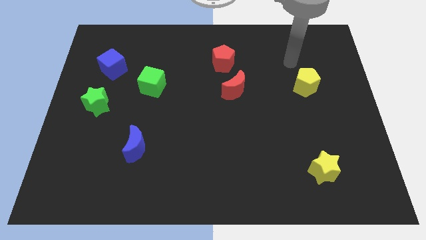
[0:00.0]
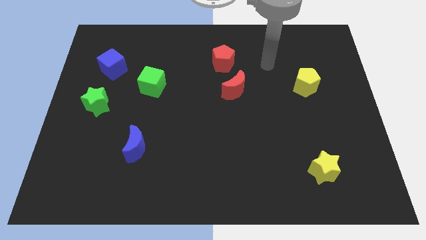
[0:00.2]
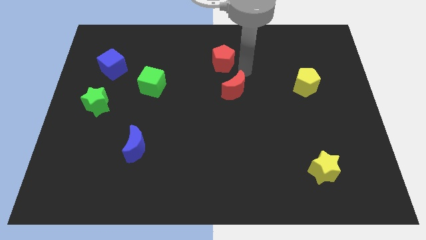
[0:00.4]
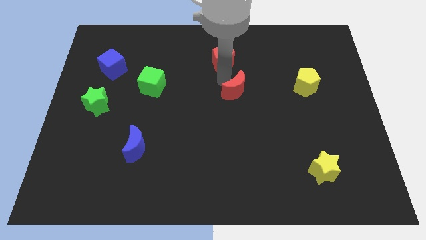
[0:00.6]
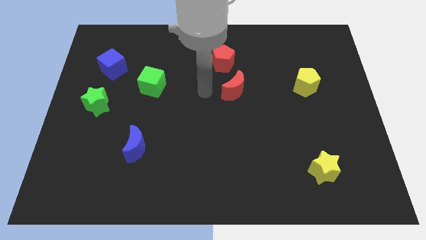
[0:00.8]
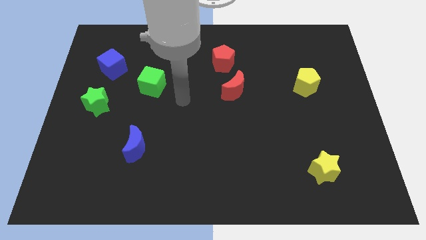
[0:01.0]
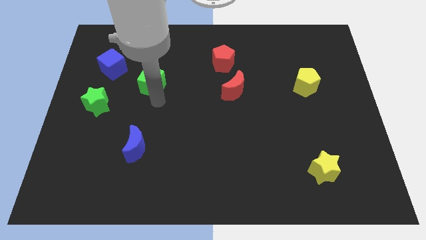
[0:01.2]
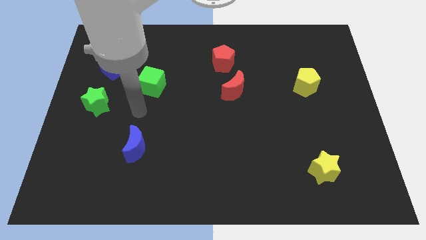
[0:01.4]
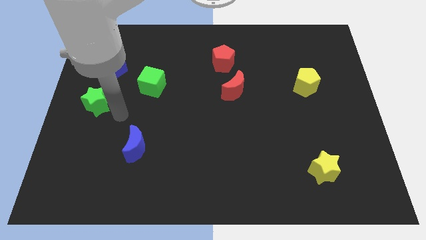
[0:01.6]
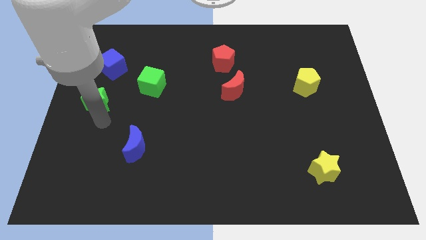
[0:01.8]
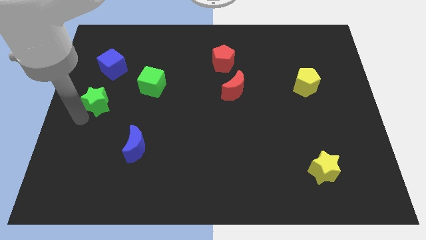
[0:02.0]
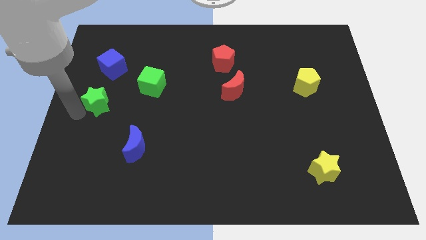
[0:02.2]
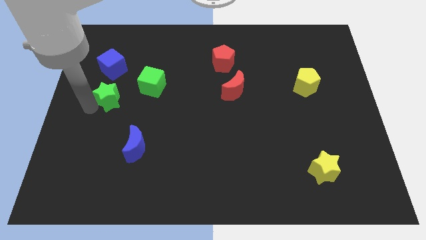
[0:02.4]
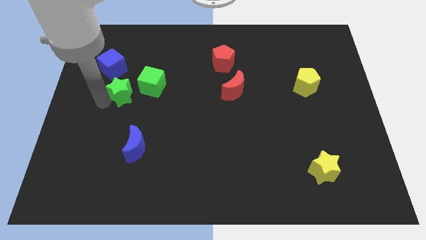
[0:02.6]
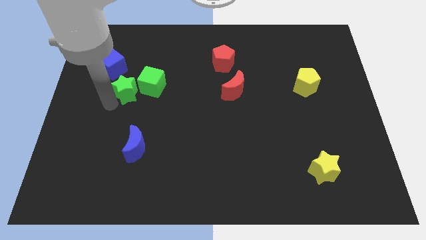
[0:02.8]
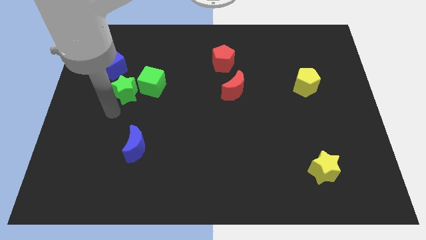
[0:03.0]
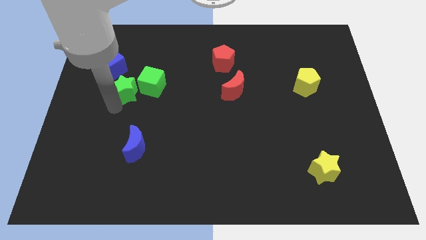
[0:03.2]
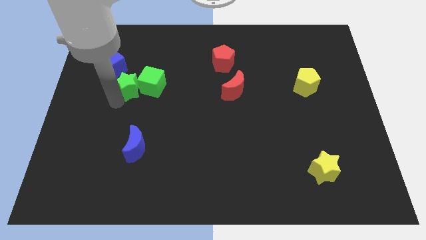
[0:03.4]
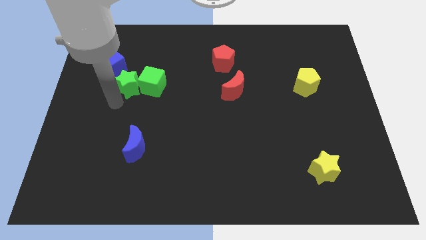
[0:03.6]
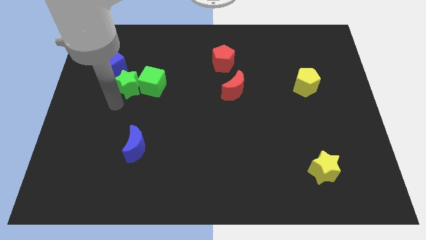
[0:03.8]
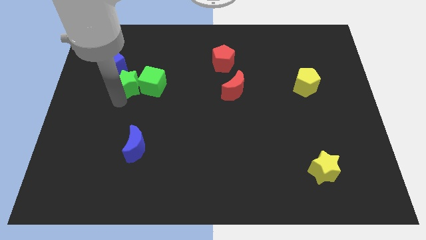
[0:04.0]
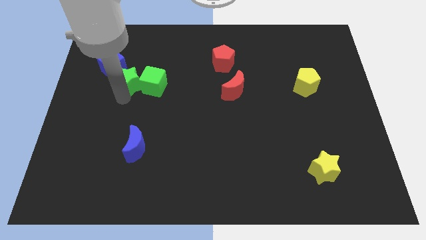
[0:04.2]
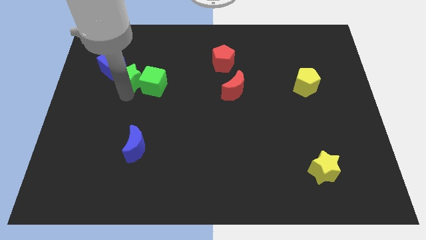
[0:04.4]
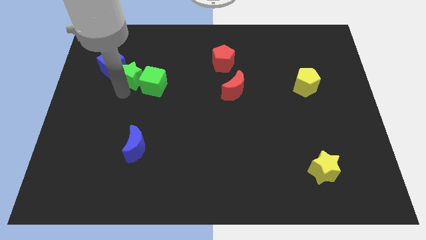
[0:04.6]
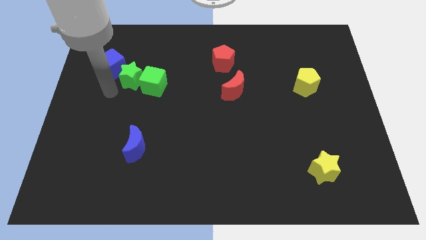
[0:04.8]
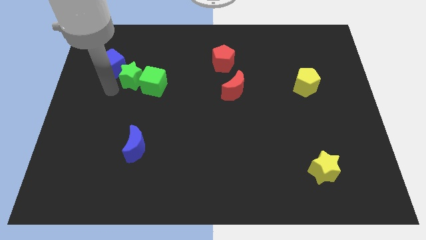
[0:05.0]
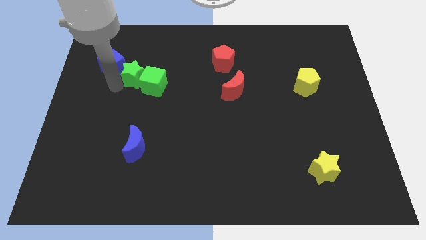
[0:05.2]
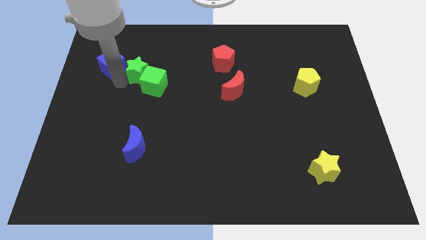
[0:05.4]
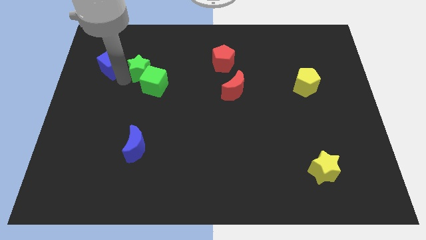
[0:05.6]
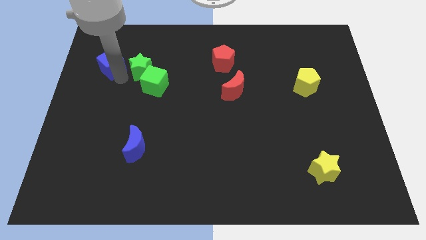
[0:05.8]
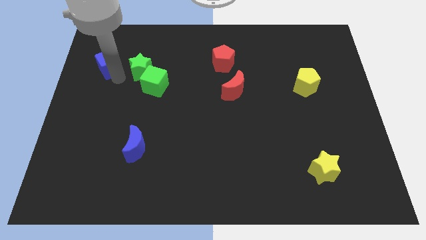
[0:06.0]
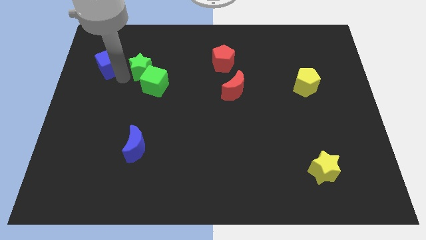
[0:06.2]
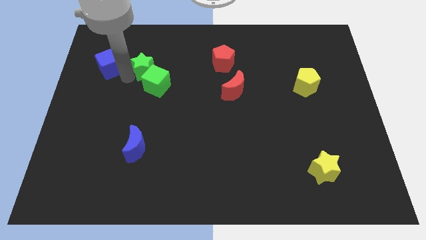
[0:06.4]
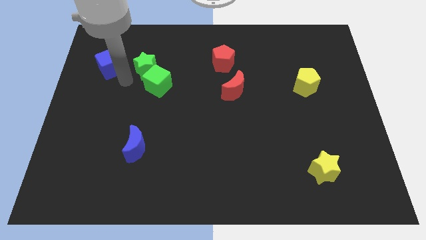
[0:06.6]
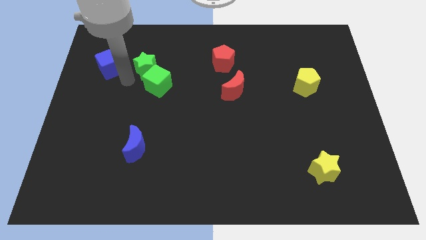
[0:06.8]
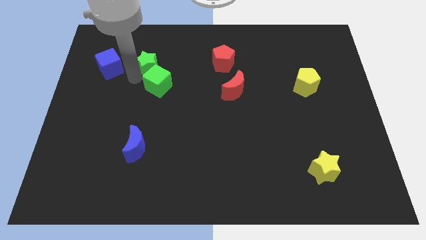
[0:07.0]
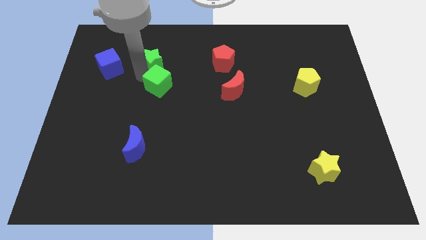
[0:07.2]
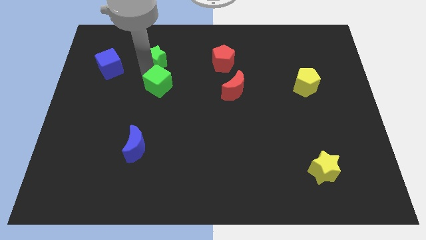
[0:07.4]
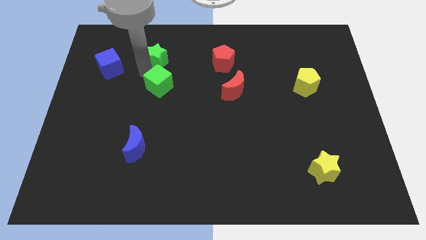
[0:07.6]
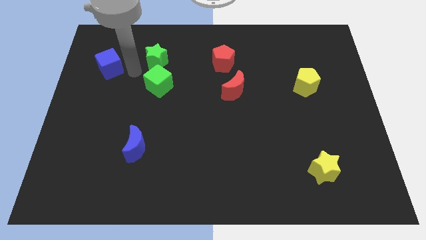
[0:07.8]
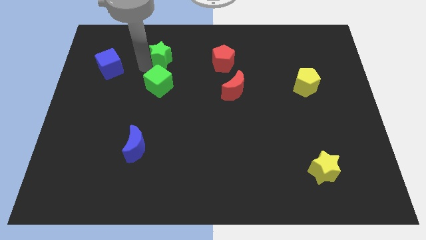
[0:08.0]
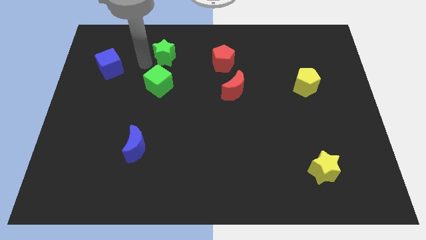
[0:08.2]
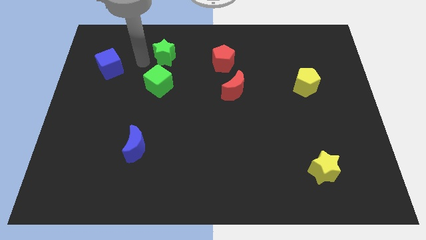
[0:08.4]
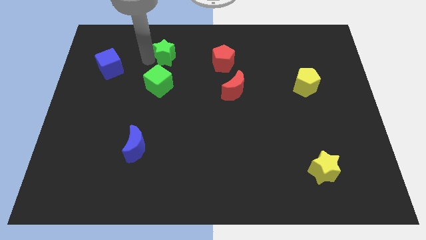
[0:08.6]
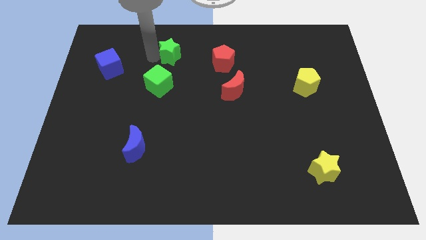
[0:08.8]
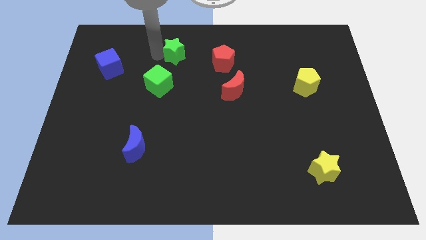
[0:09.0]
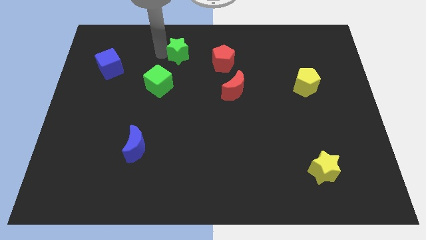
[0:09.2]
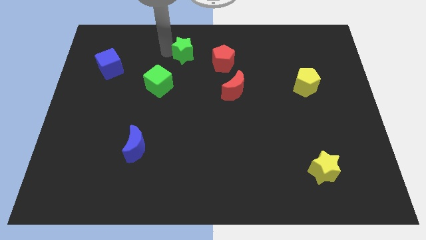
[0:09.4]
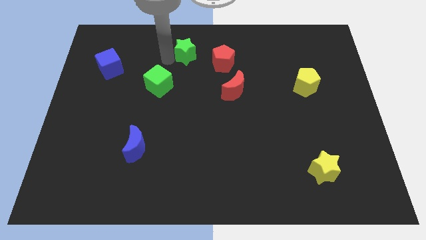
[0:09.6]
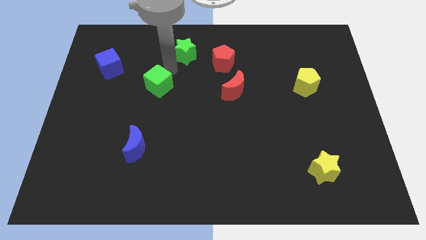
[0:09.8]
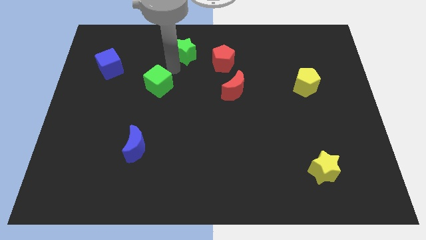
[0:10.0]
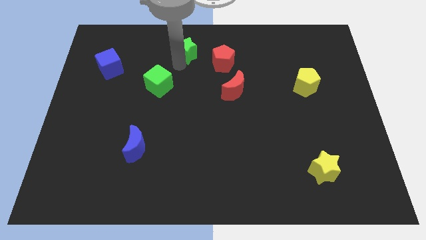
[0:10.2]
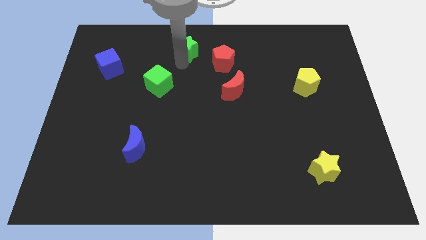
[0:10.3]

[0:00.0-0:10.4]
move the green star to the top side

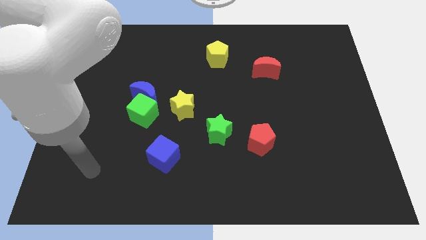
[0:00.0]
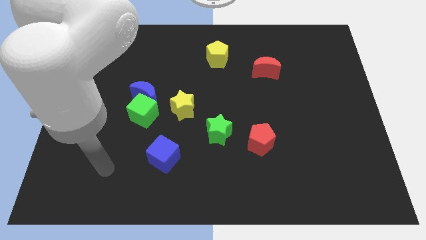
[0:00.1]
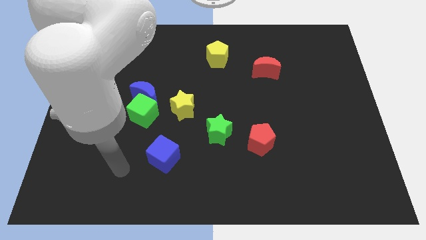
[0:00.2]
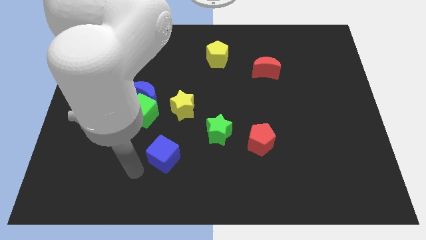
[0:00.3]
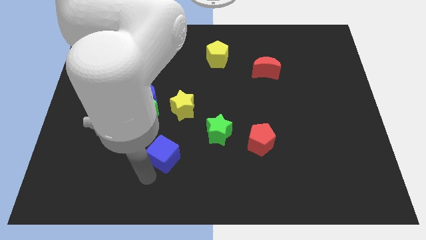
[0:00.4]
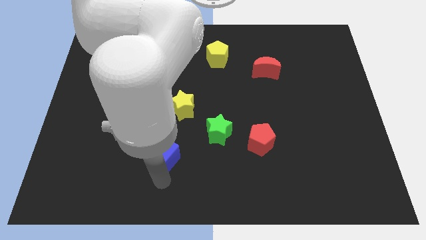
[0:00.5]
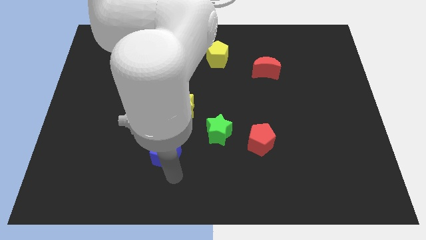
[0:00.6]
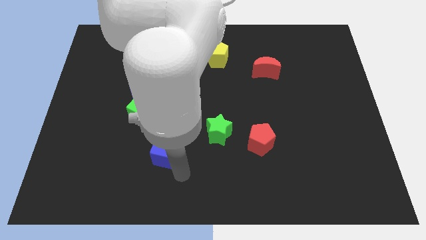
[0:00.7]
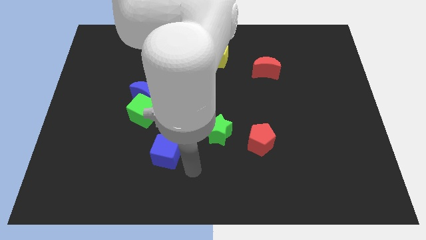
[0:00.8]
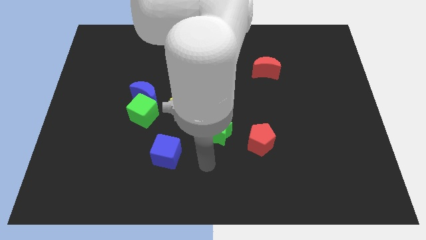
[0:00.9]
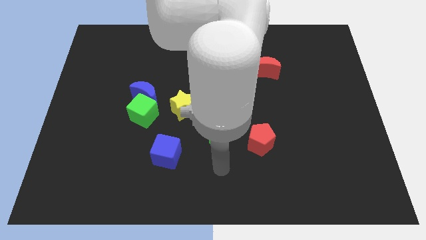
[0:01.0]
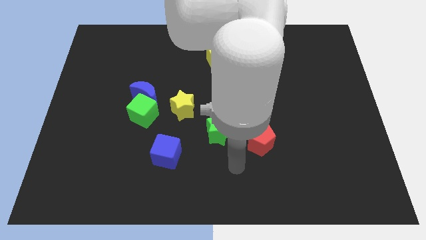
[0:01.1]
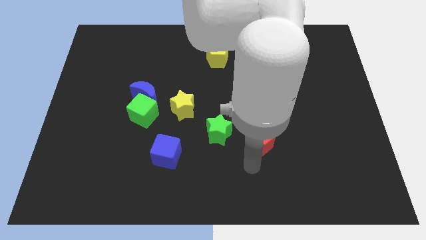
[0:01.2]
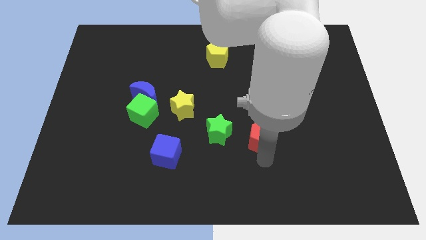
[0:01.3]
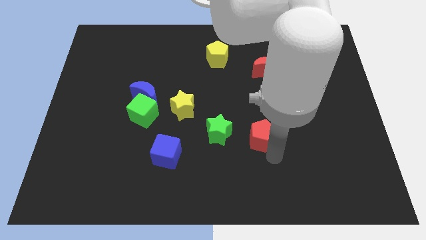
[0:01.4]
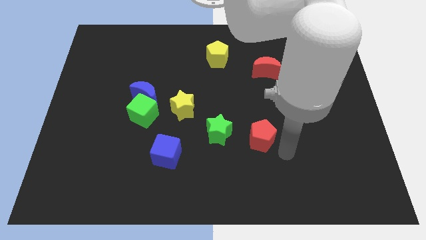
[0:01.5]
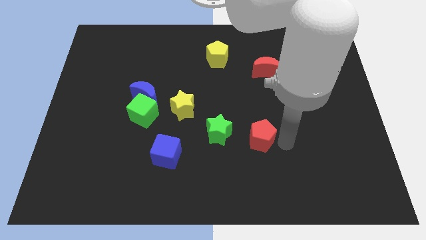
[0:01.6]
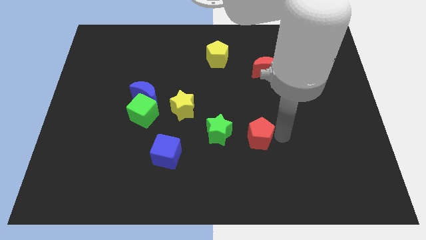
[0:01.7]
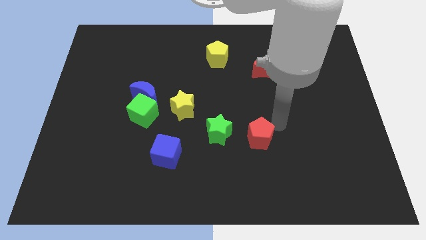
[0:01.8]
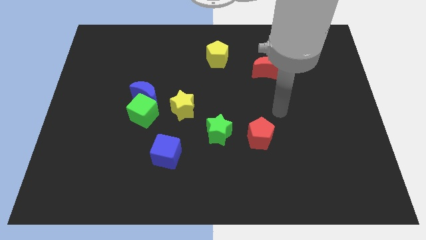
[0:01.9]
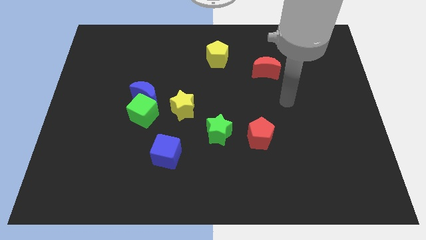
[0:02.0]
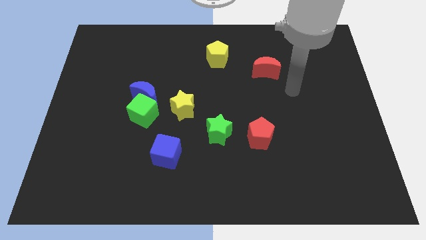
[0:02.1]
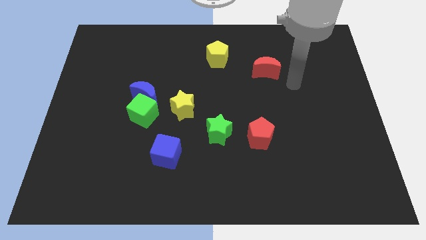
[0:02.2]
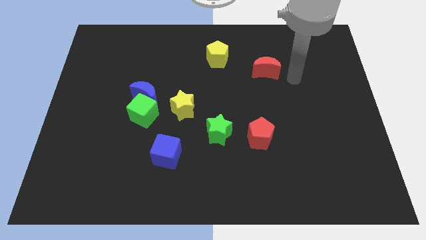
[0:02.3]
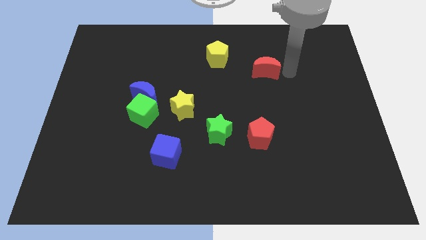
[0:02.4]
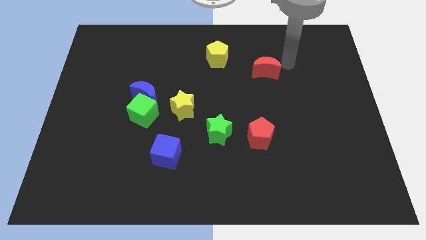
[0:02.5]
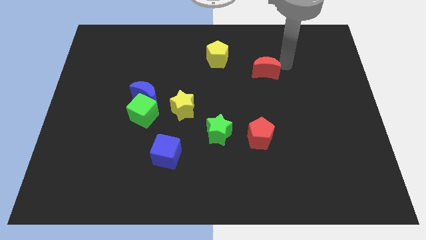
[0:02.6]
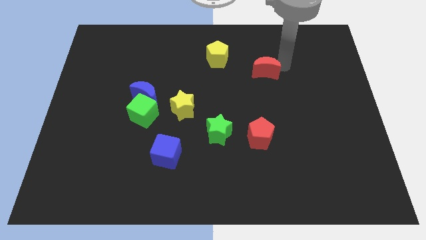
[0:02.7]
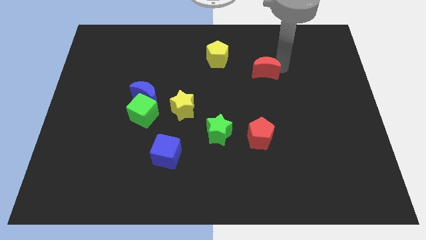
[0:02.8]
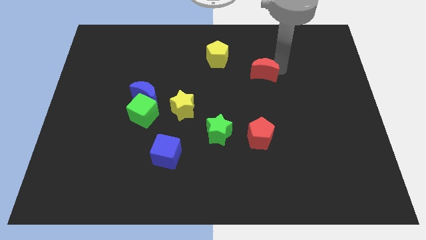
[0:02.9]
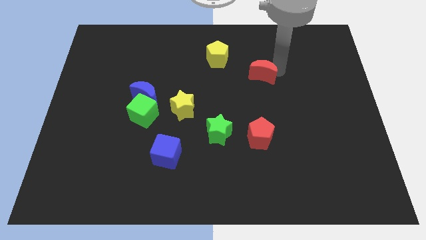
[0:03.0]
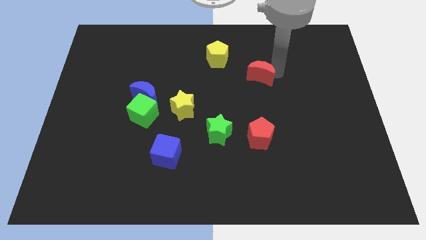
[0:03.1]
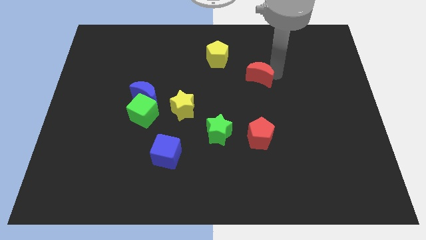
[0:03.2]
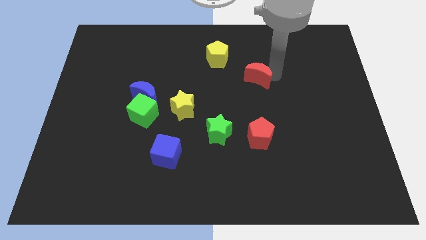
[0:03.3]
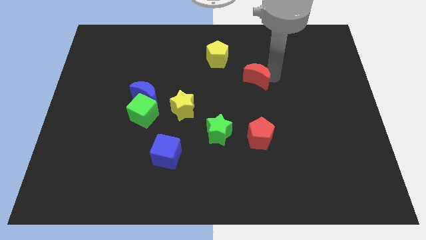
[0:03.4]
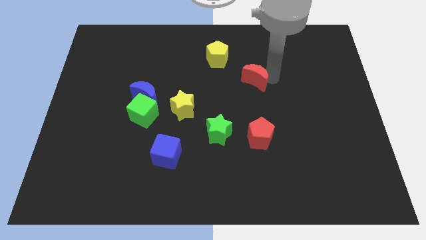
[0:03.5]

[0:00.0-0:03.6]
push the red moon to the middle of the board
